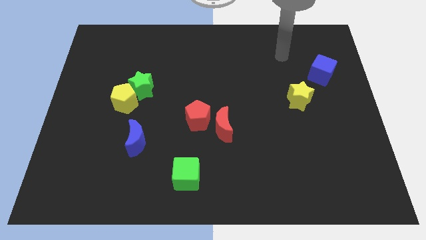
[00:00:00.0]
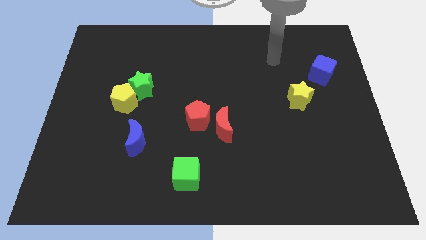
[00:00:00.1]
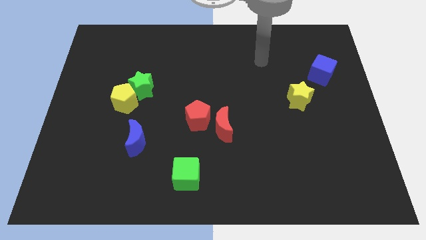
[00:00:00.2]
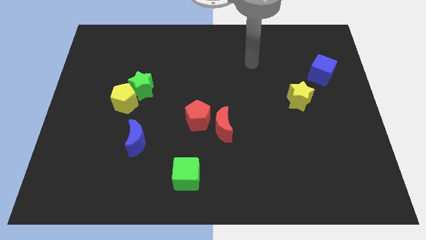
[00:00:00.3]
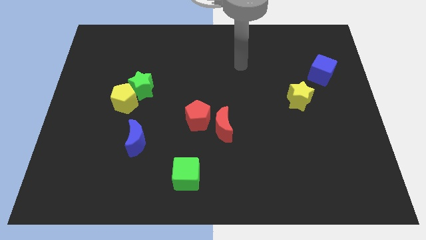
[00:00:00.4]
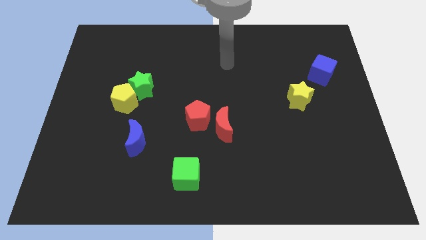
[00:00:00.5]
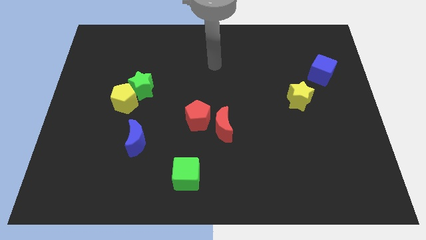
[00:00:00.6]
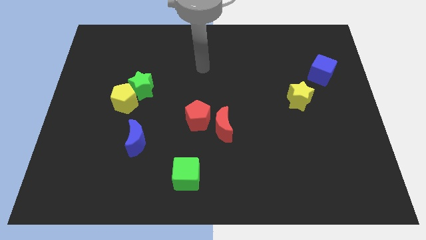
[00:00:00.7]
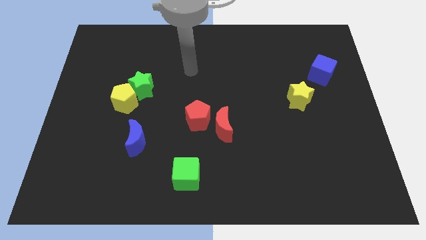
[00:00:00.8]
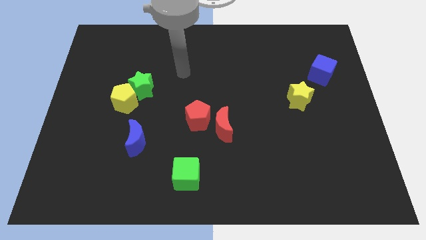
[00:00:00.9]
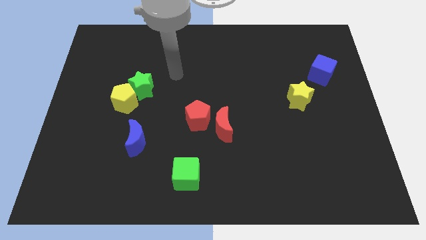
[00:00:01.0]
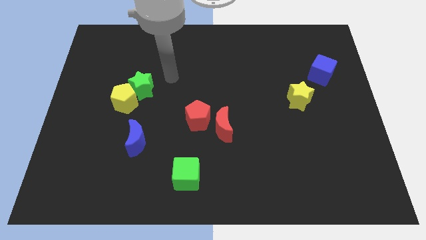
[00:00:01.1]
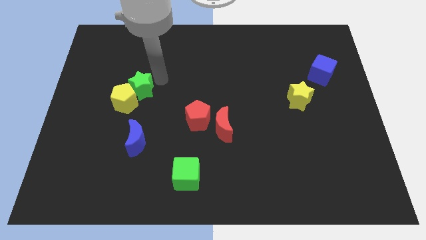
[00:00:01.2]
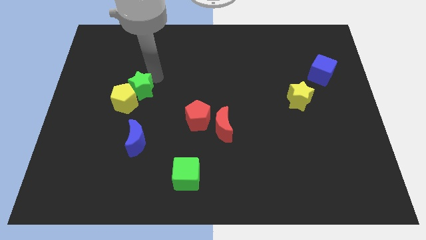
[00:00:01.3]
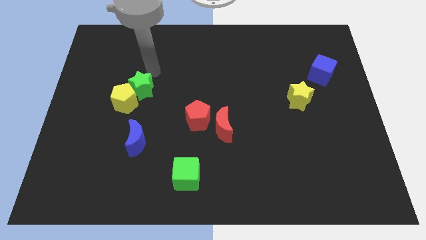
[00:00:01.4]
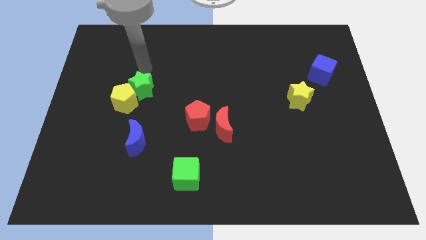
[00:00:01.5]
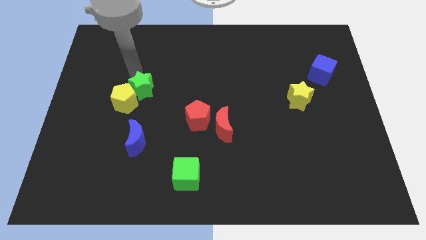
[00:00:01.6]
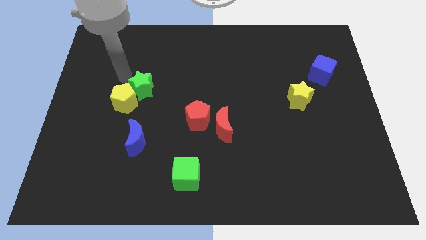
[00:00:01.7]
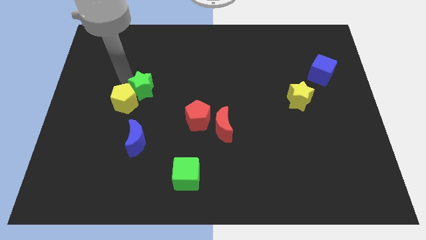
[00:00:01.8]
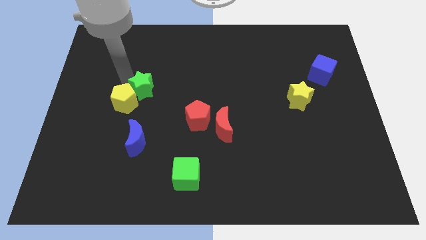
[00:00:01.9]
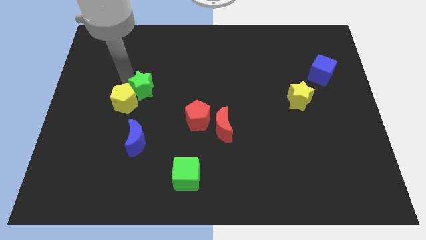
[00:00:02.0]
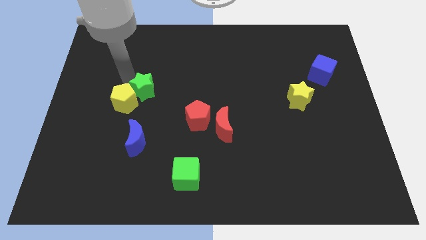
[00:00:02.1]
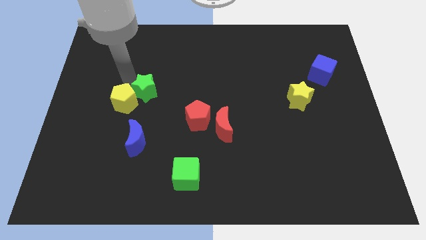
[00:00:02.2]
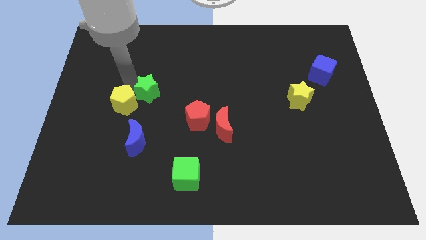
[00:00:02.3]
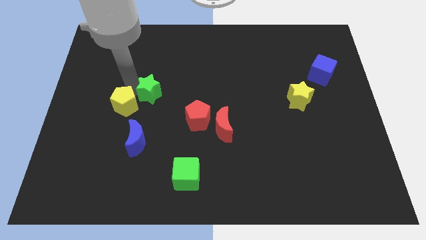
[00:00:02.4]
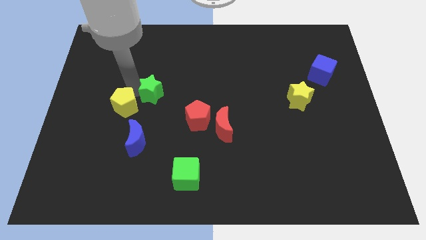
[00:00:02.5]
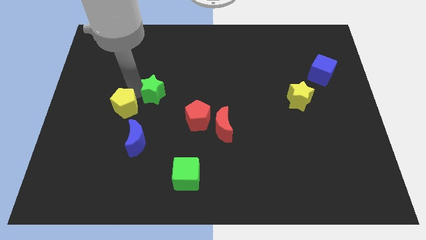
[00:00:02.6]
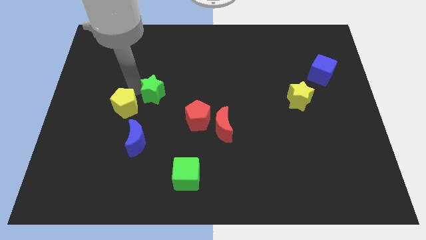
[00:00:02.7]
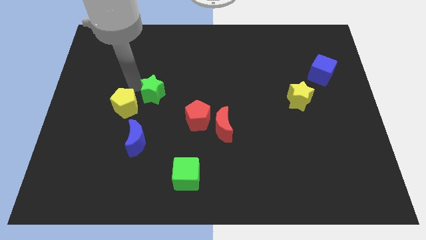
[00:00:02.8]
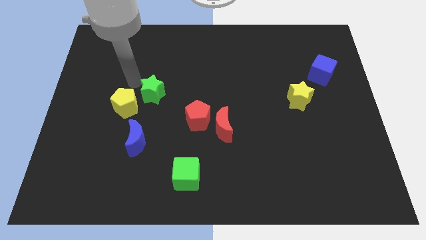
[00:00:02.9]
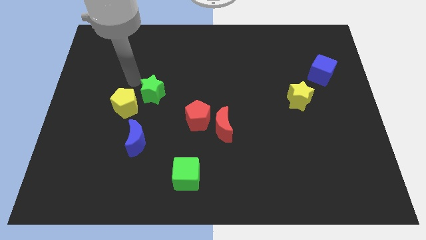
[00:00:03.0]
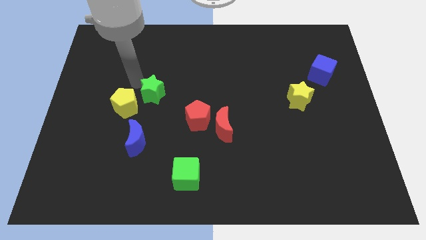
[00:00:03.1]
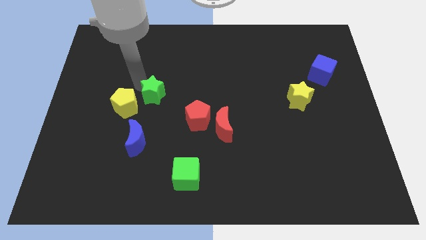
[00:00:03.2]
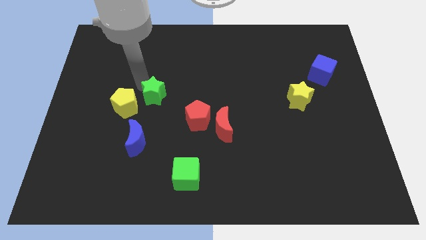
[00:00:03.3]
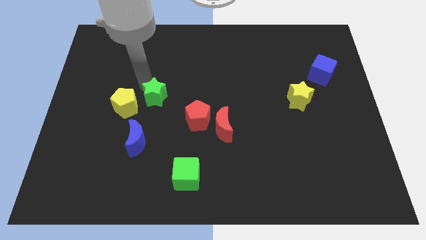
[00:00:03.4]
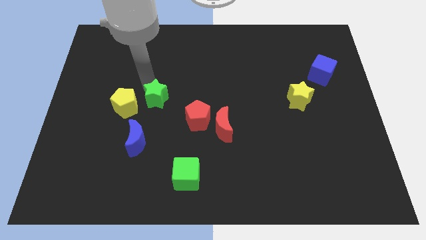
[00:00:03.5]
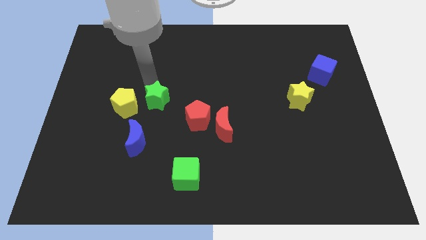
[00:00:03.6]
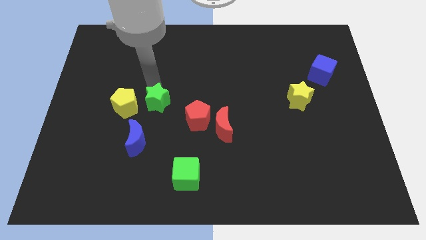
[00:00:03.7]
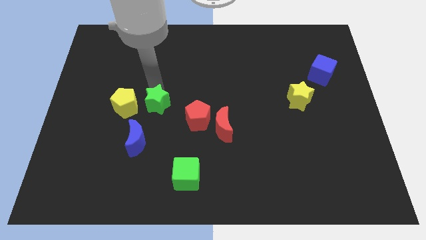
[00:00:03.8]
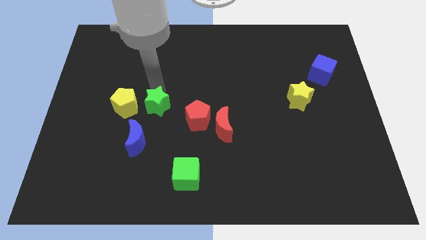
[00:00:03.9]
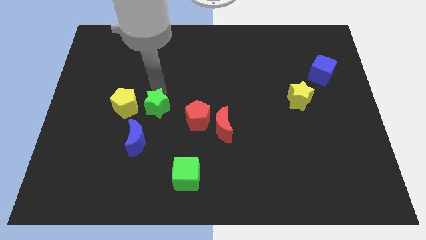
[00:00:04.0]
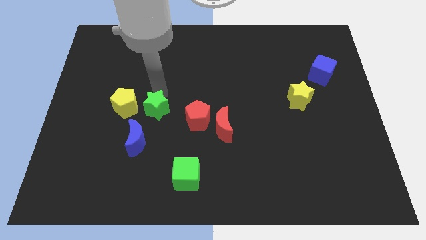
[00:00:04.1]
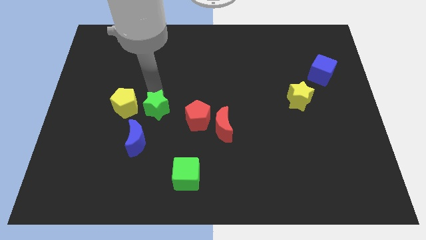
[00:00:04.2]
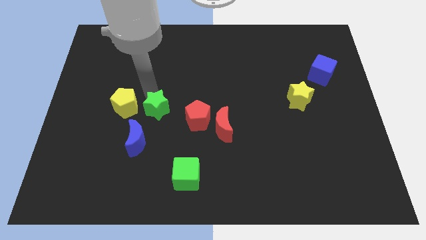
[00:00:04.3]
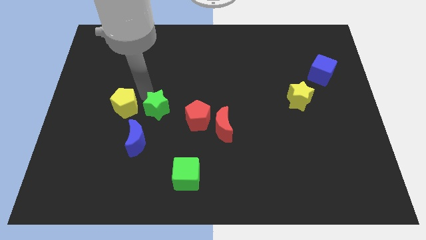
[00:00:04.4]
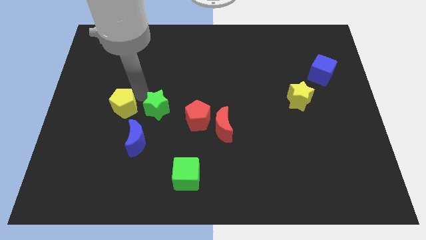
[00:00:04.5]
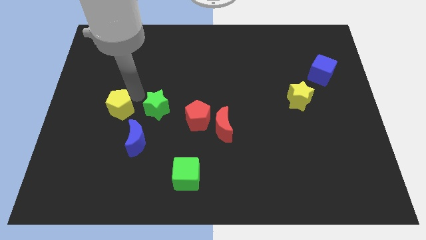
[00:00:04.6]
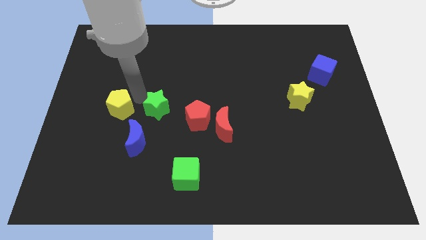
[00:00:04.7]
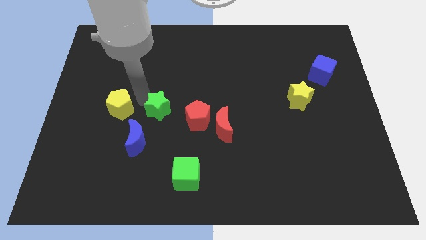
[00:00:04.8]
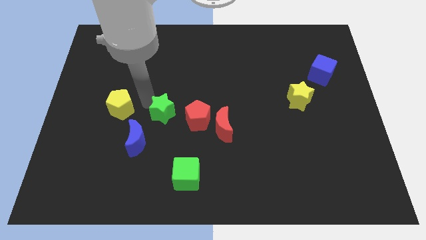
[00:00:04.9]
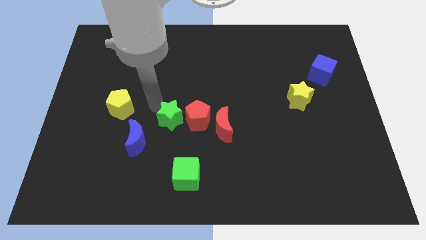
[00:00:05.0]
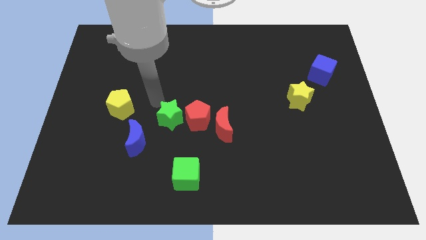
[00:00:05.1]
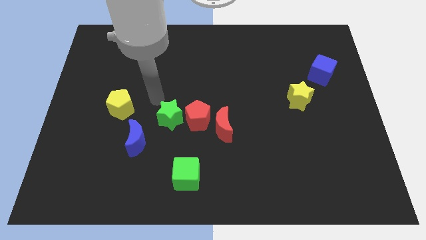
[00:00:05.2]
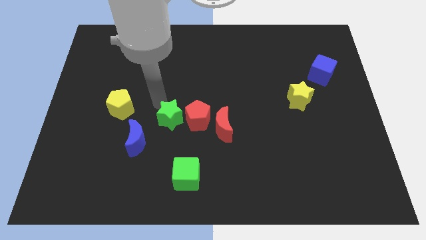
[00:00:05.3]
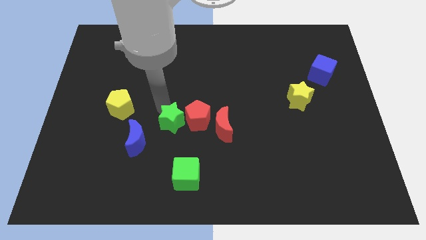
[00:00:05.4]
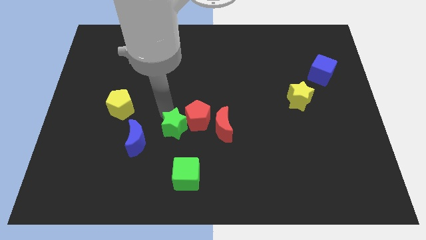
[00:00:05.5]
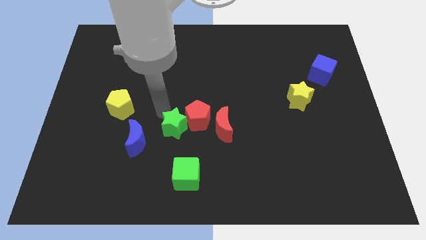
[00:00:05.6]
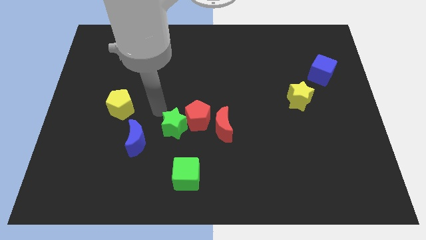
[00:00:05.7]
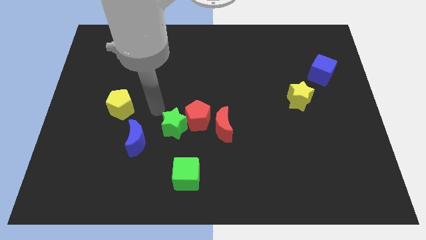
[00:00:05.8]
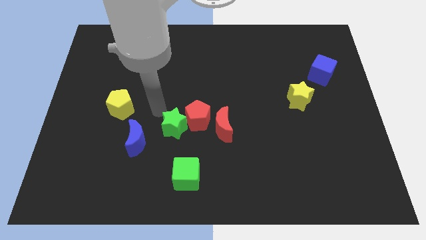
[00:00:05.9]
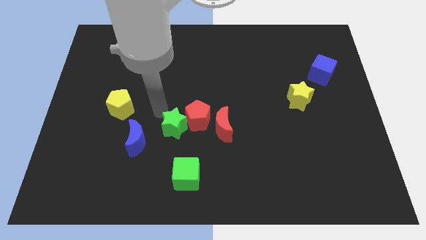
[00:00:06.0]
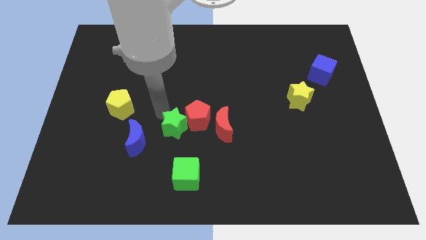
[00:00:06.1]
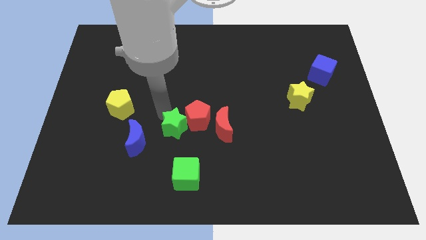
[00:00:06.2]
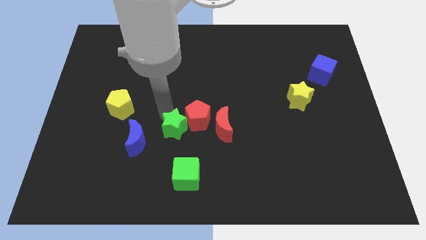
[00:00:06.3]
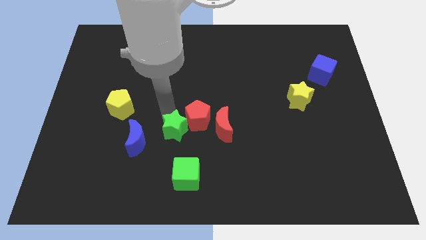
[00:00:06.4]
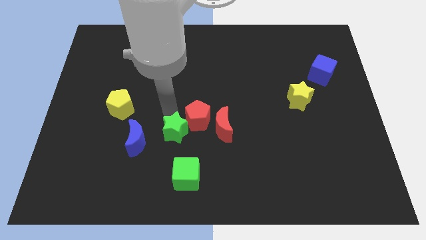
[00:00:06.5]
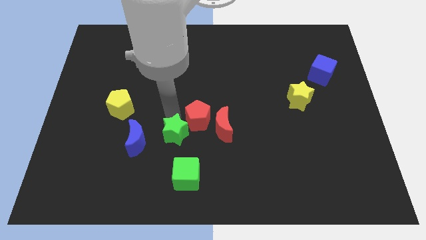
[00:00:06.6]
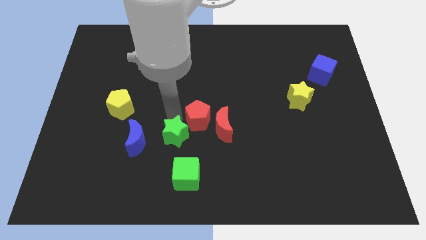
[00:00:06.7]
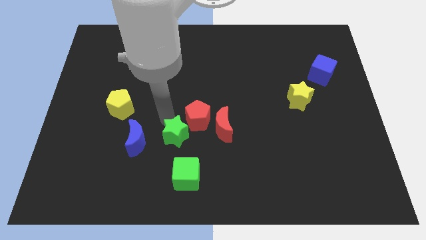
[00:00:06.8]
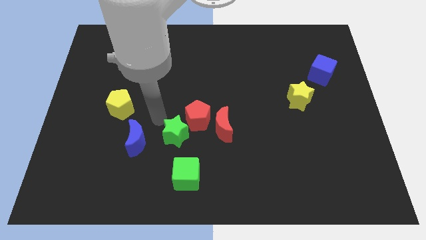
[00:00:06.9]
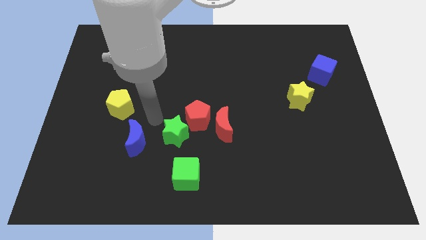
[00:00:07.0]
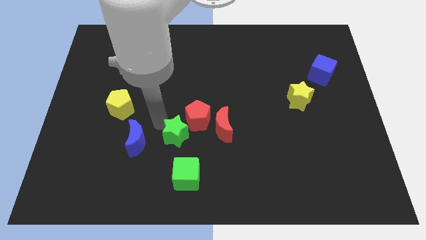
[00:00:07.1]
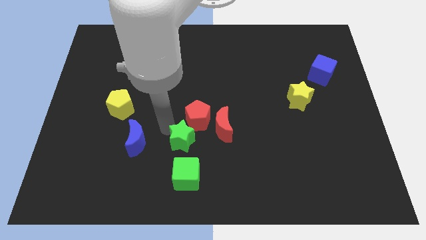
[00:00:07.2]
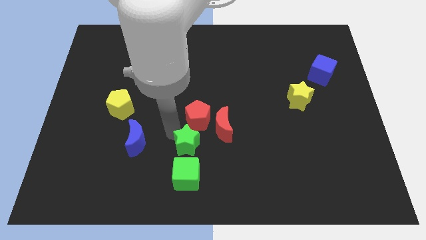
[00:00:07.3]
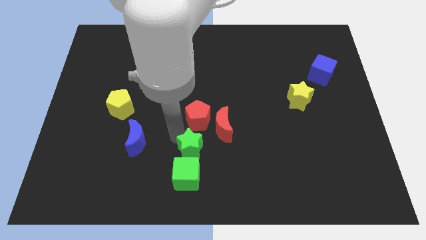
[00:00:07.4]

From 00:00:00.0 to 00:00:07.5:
slide the green star down and right diagonally

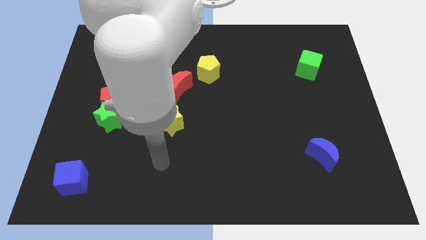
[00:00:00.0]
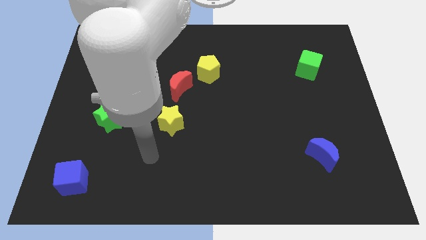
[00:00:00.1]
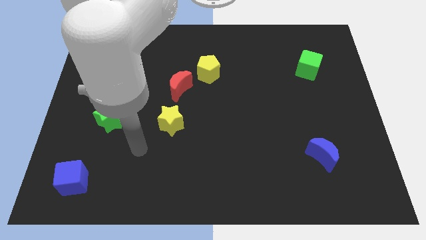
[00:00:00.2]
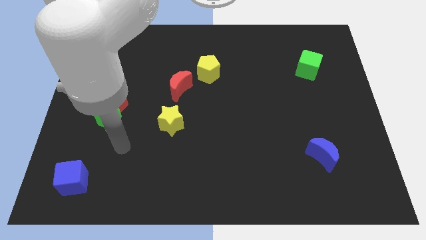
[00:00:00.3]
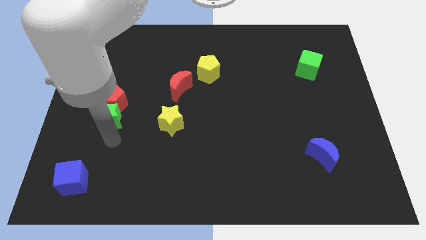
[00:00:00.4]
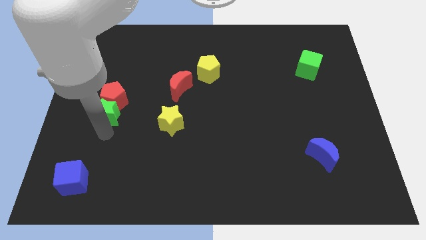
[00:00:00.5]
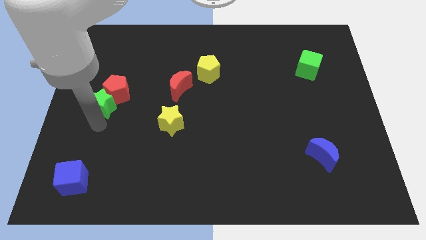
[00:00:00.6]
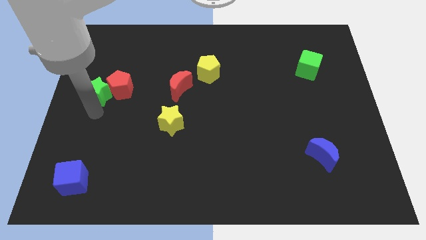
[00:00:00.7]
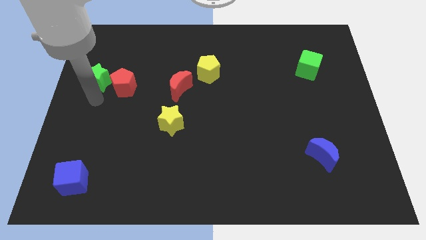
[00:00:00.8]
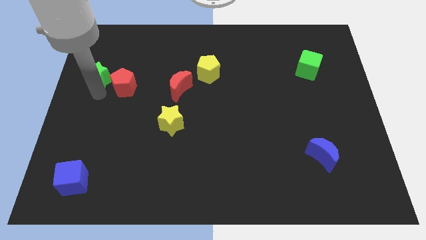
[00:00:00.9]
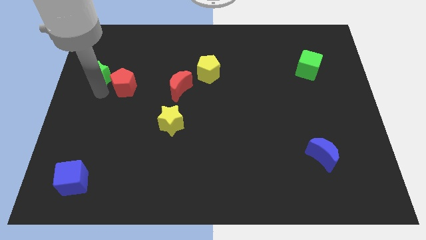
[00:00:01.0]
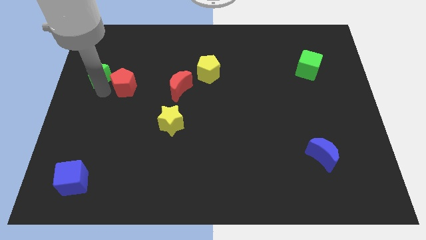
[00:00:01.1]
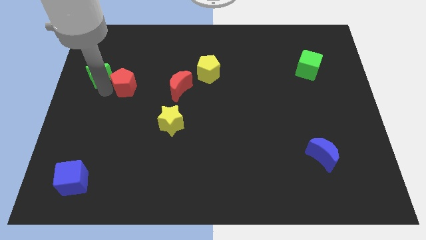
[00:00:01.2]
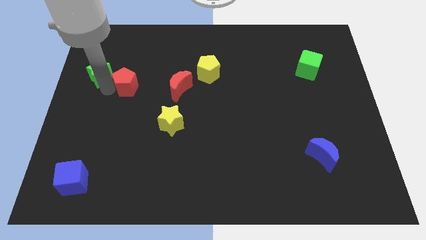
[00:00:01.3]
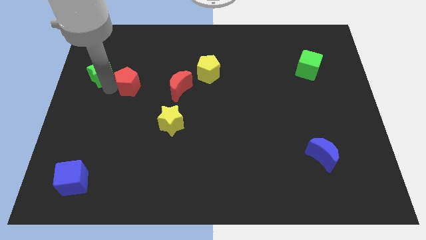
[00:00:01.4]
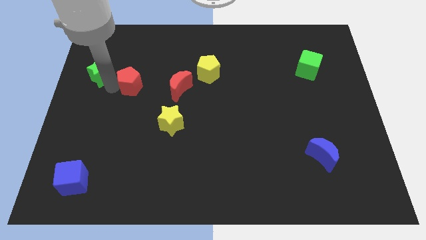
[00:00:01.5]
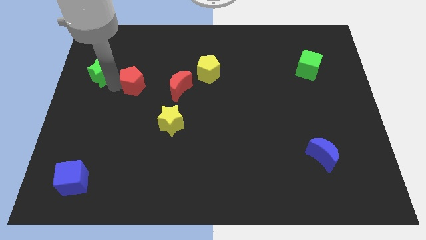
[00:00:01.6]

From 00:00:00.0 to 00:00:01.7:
push the red pentagon somewhat upwards and then right
